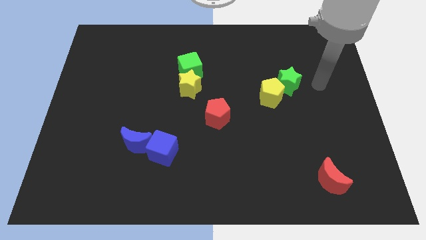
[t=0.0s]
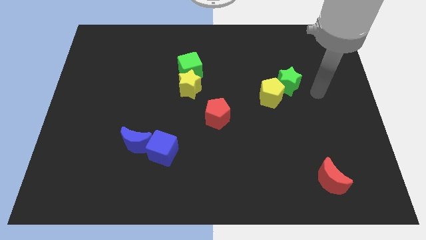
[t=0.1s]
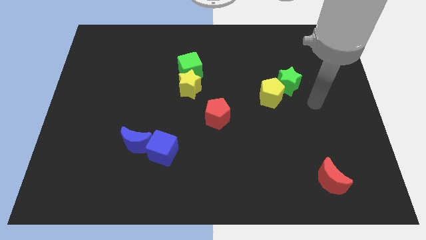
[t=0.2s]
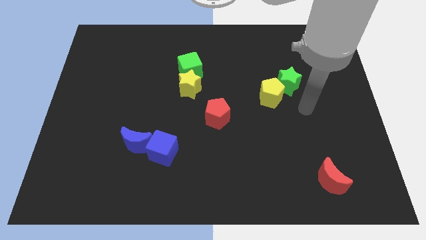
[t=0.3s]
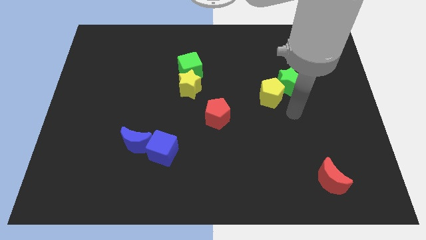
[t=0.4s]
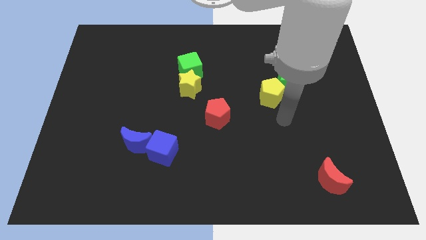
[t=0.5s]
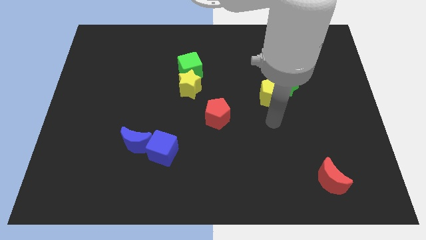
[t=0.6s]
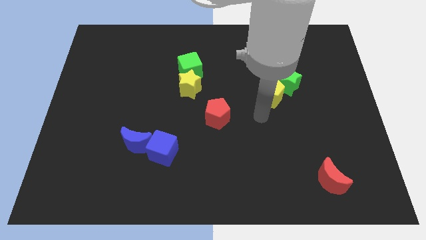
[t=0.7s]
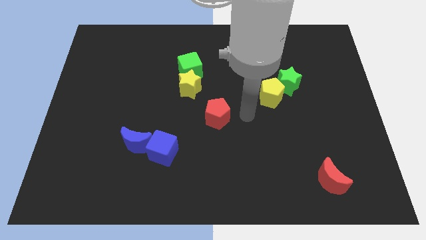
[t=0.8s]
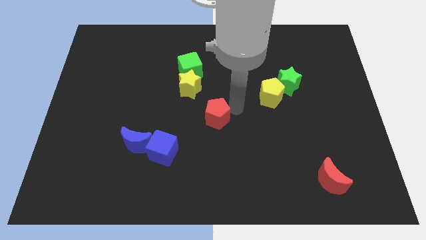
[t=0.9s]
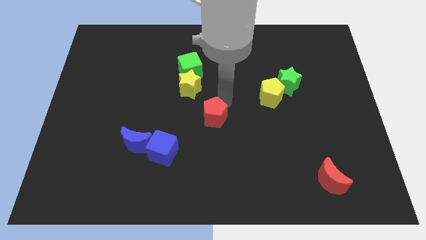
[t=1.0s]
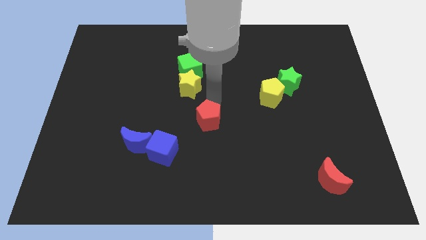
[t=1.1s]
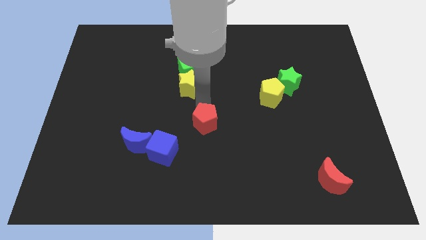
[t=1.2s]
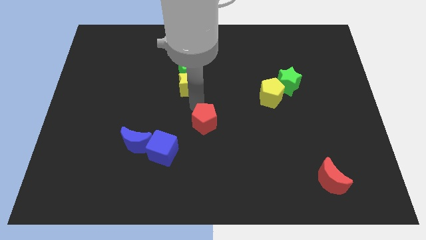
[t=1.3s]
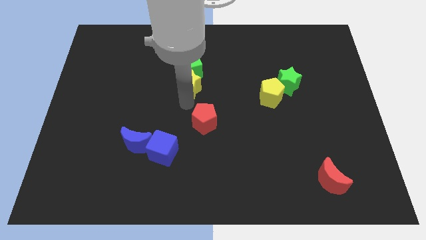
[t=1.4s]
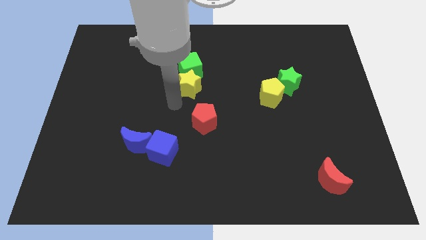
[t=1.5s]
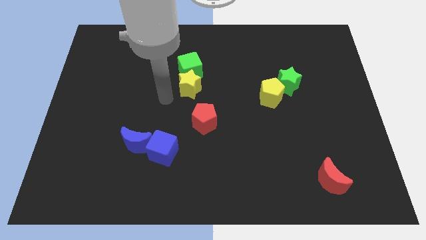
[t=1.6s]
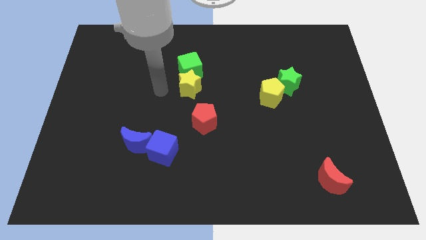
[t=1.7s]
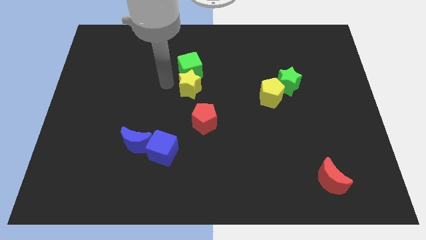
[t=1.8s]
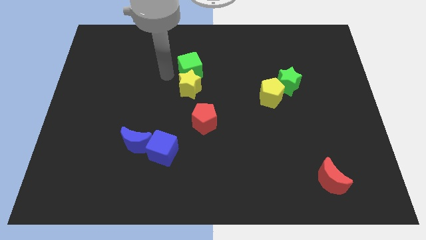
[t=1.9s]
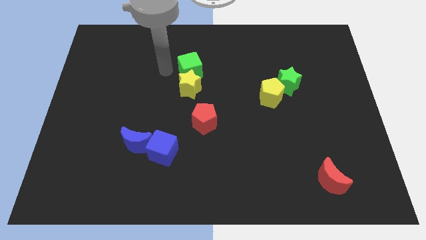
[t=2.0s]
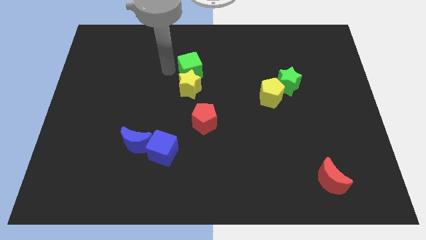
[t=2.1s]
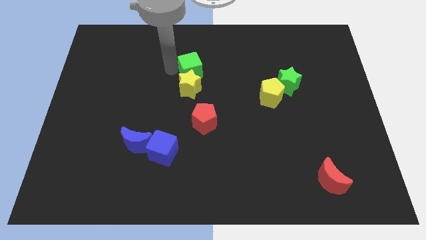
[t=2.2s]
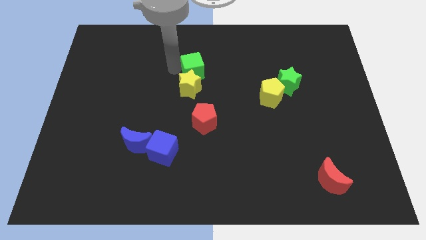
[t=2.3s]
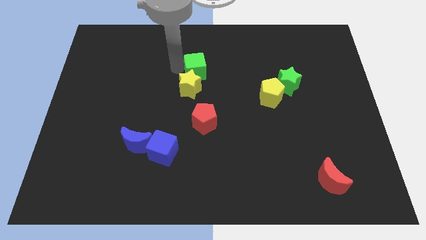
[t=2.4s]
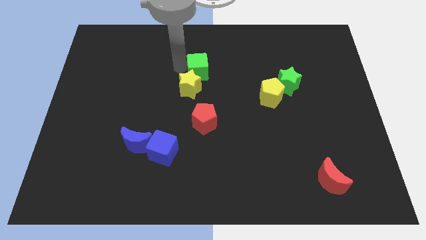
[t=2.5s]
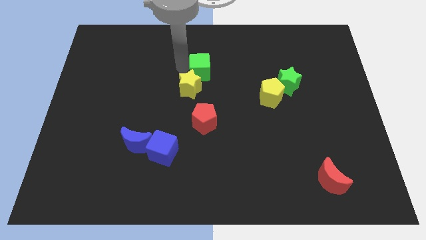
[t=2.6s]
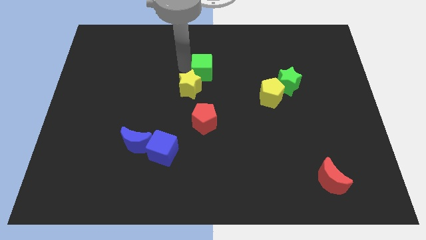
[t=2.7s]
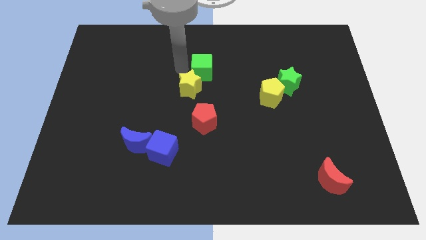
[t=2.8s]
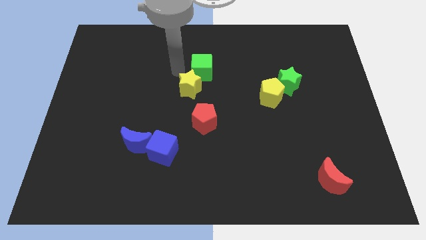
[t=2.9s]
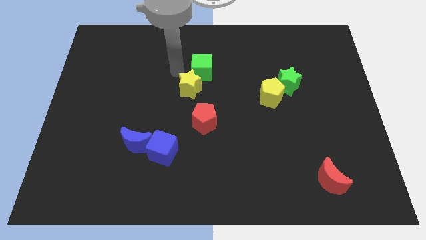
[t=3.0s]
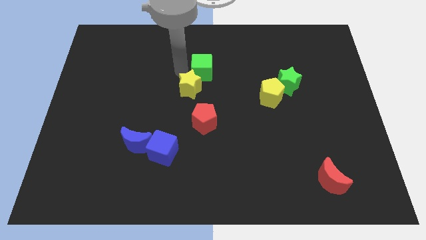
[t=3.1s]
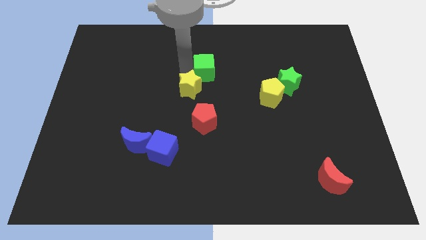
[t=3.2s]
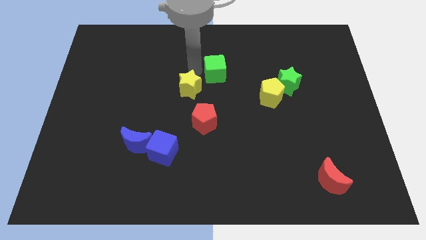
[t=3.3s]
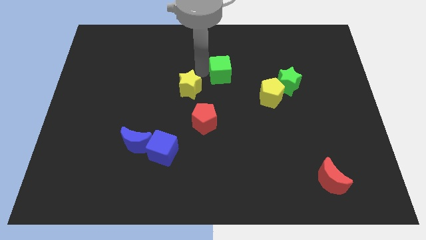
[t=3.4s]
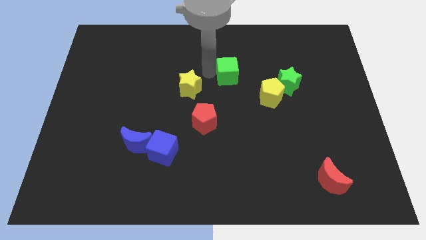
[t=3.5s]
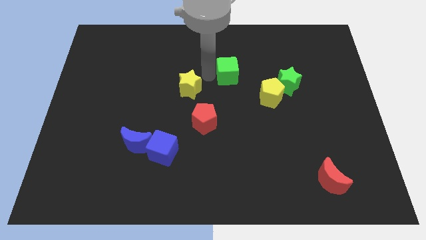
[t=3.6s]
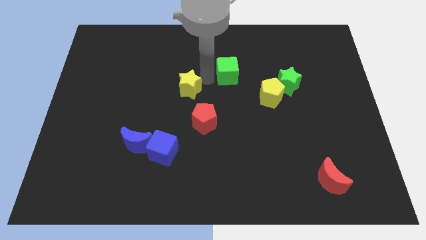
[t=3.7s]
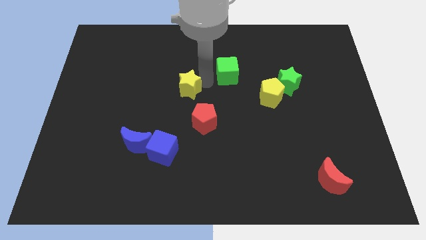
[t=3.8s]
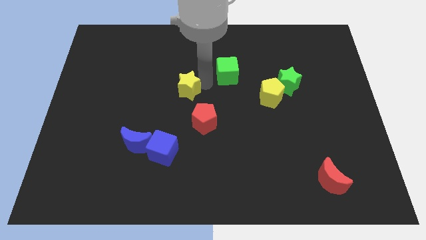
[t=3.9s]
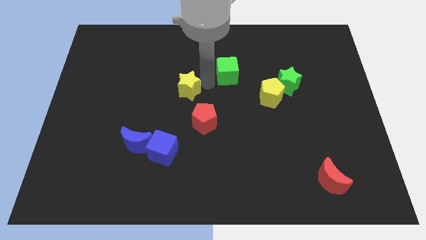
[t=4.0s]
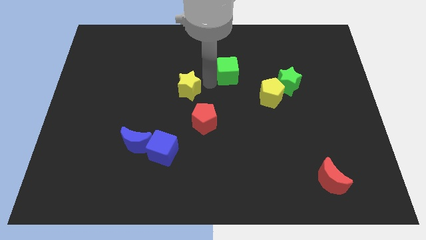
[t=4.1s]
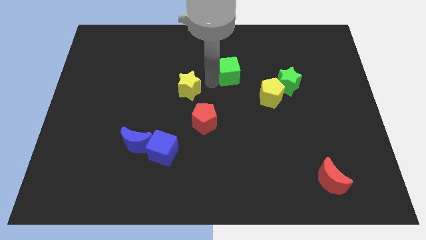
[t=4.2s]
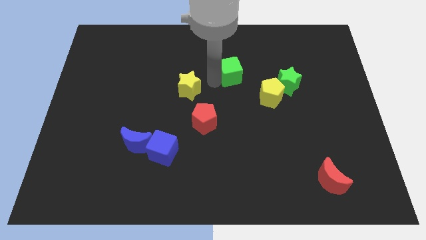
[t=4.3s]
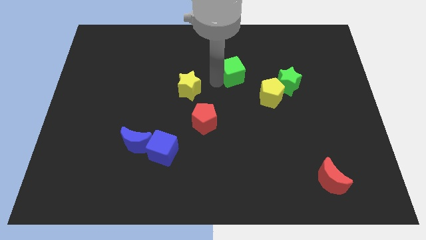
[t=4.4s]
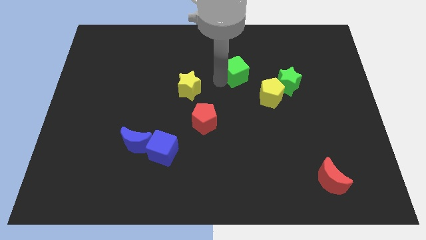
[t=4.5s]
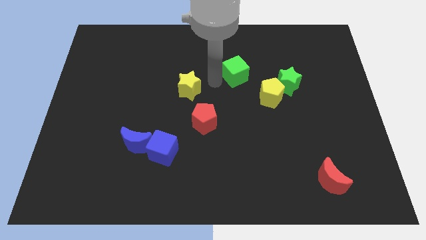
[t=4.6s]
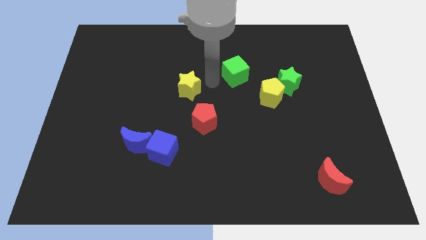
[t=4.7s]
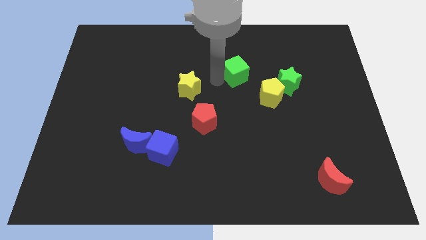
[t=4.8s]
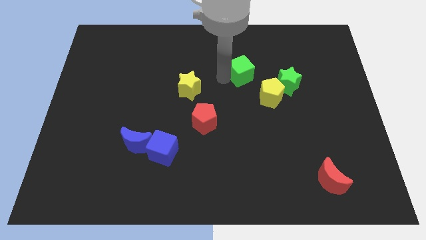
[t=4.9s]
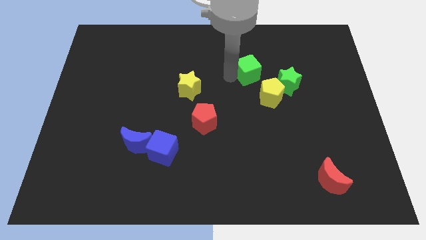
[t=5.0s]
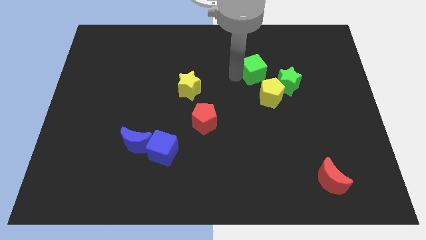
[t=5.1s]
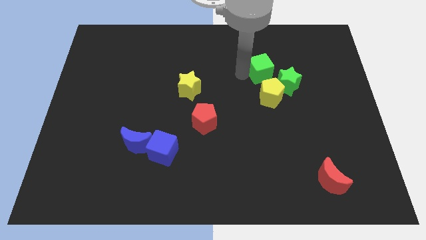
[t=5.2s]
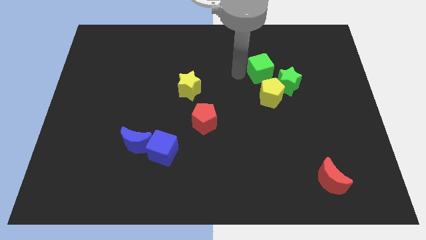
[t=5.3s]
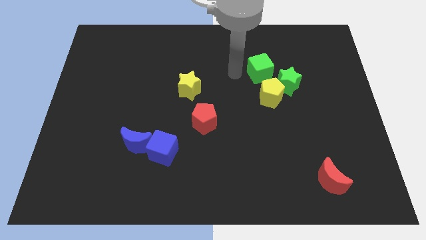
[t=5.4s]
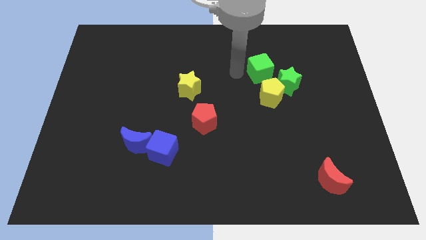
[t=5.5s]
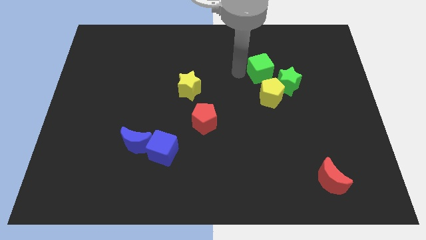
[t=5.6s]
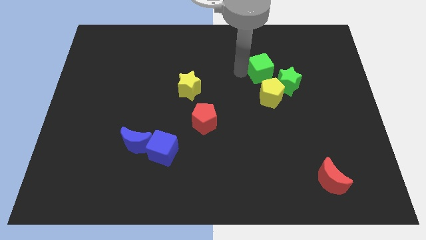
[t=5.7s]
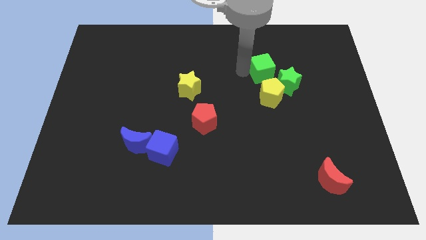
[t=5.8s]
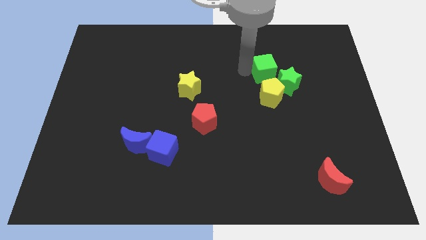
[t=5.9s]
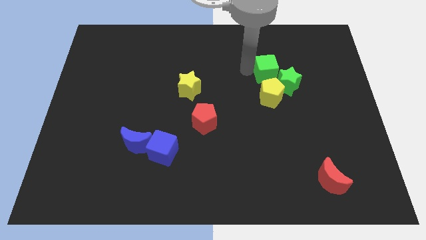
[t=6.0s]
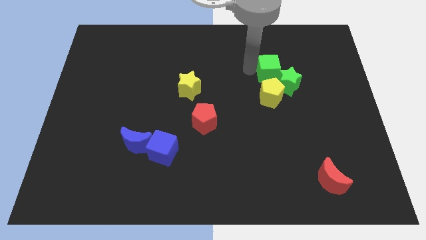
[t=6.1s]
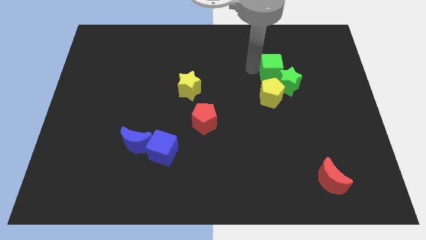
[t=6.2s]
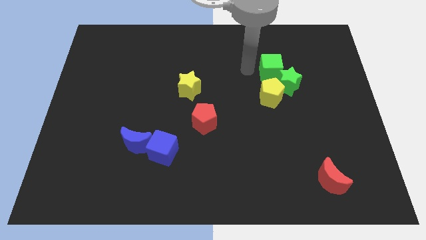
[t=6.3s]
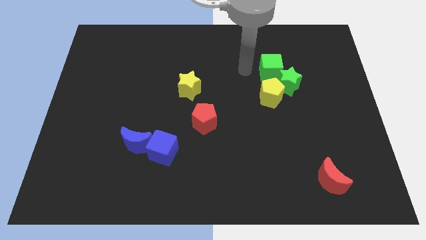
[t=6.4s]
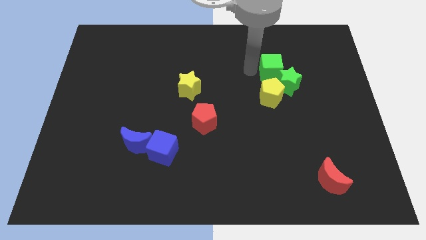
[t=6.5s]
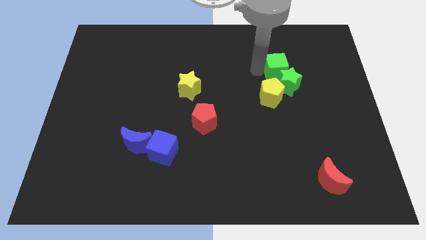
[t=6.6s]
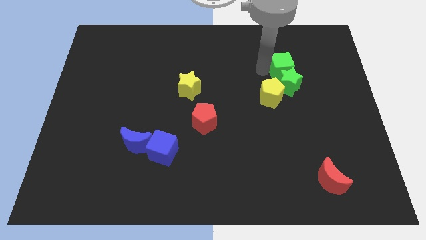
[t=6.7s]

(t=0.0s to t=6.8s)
put the green cube diagonally up and to the right of the green star
